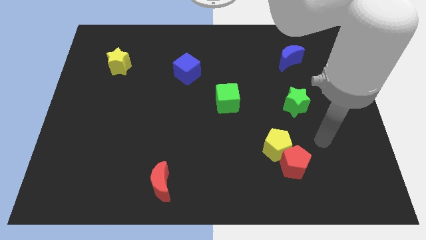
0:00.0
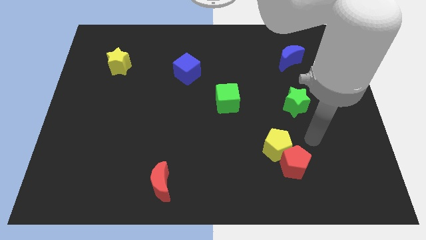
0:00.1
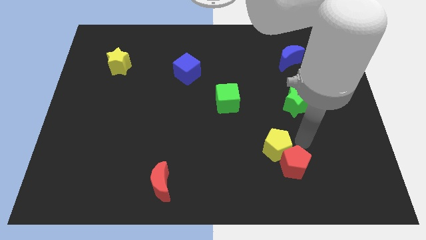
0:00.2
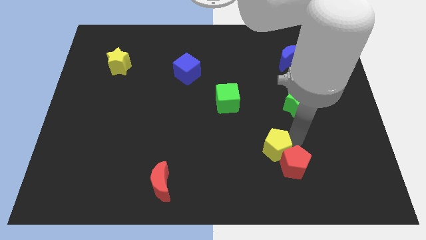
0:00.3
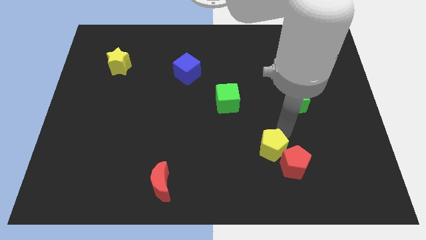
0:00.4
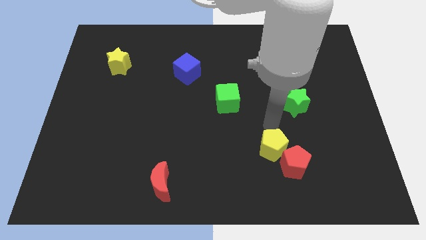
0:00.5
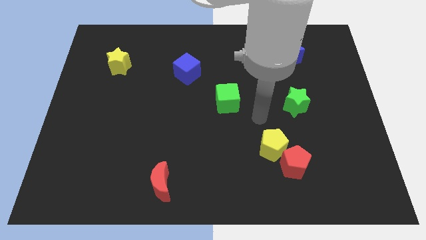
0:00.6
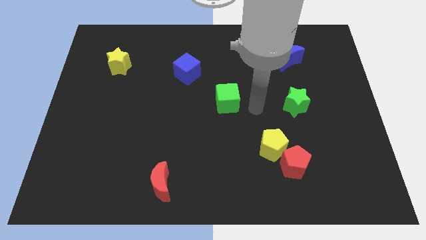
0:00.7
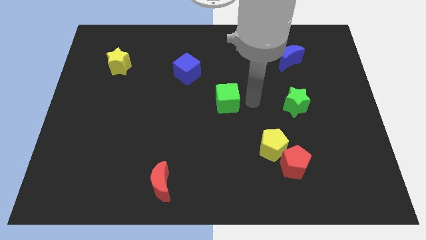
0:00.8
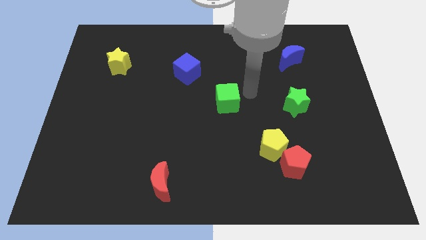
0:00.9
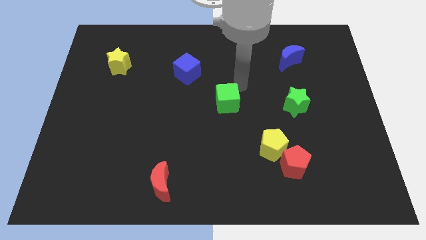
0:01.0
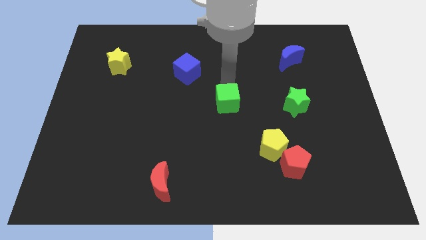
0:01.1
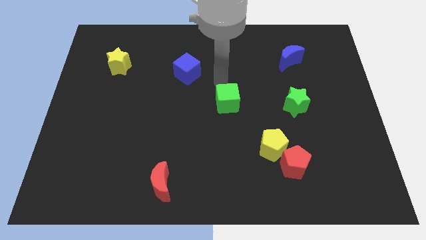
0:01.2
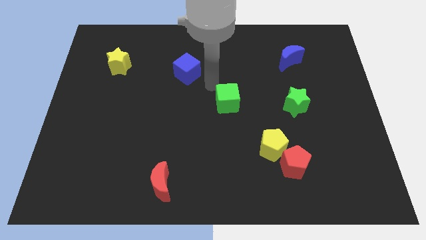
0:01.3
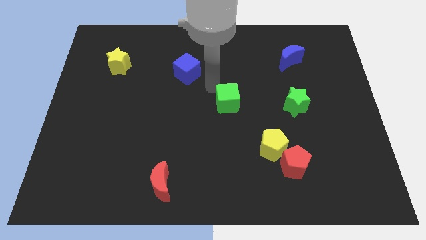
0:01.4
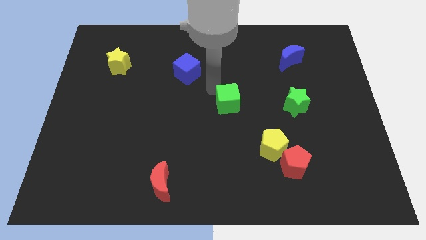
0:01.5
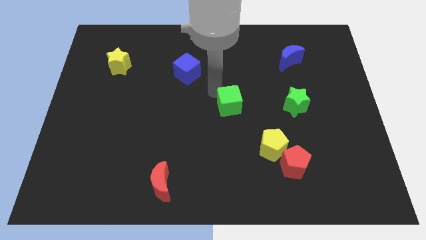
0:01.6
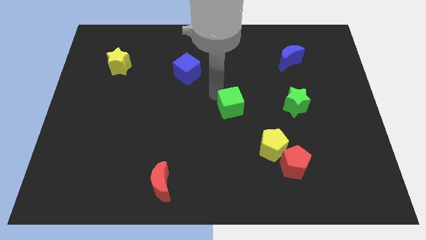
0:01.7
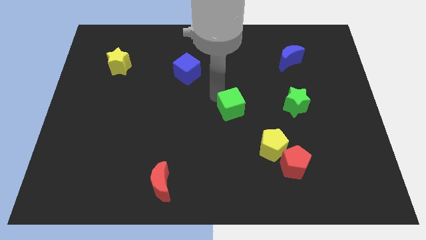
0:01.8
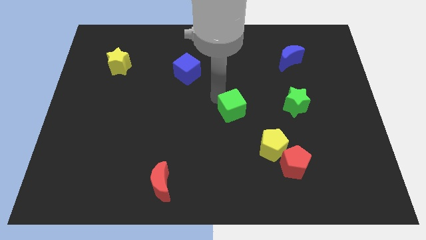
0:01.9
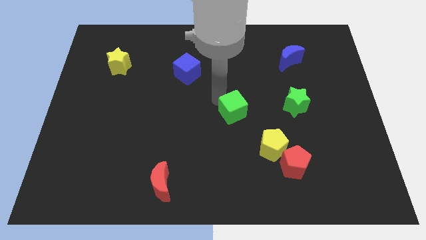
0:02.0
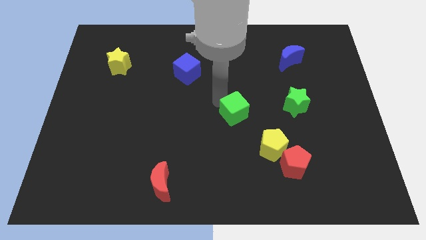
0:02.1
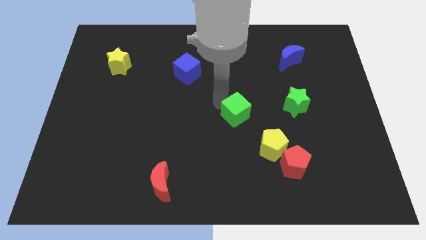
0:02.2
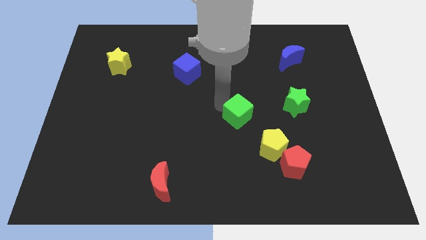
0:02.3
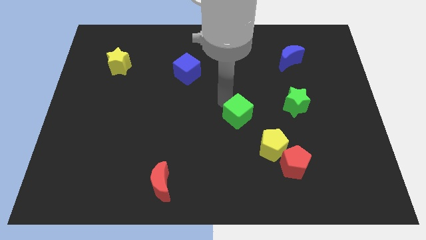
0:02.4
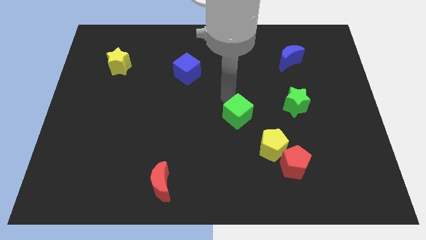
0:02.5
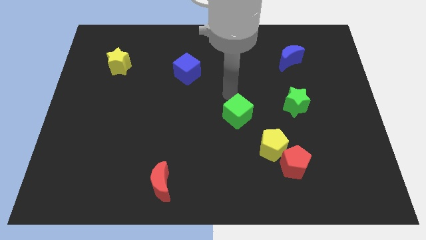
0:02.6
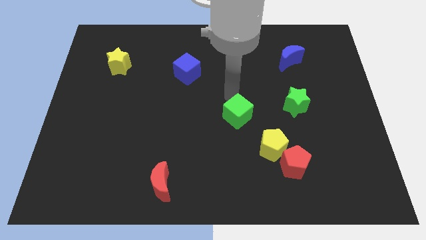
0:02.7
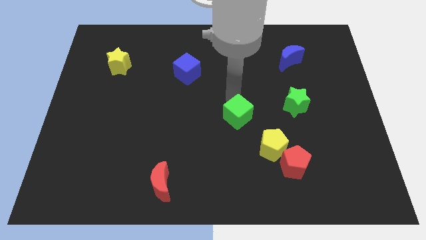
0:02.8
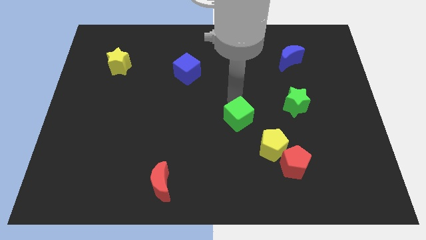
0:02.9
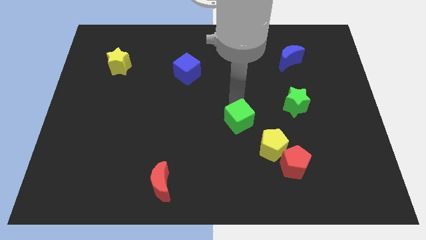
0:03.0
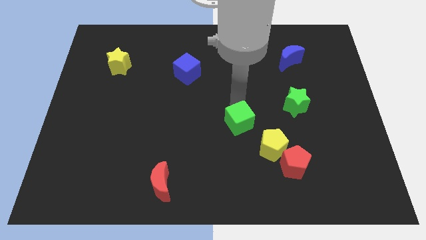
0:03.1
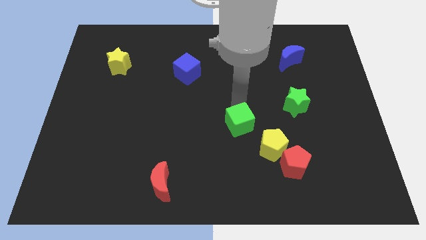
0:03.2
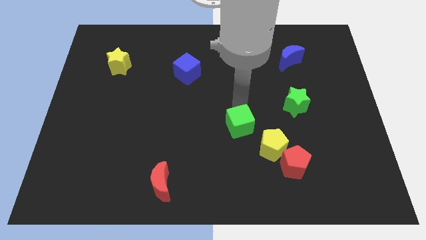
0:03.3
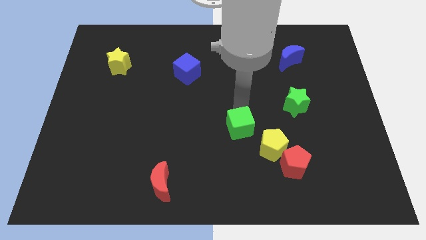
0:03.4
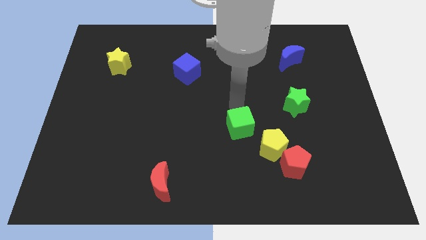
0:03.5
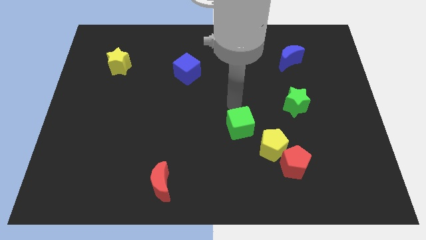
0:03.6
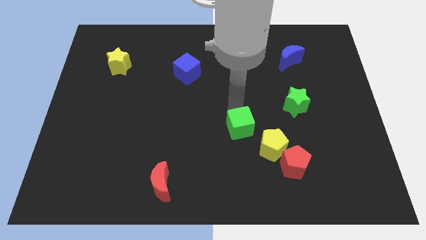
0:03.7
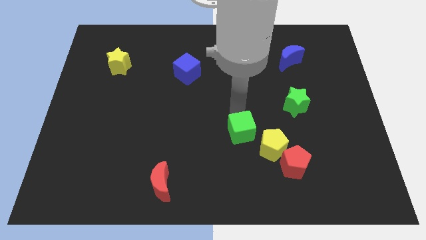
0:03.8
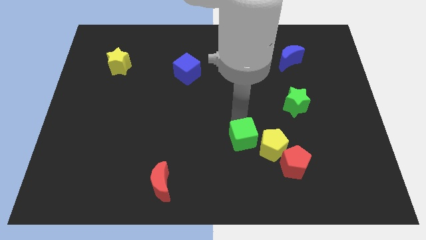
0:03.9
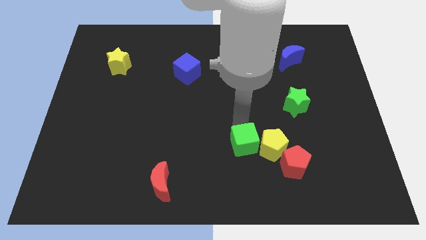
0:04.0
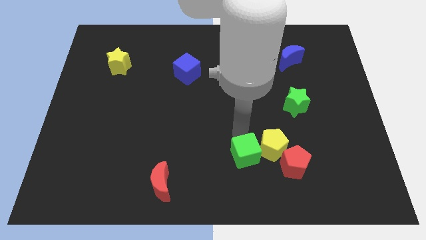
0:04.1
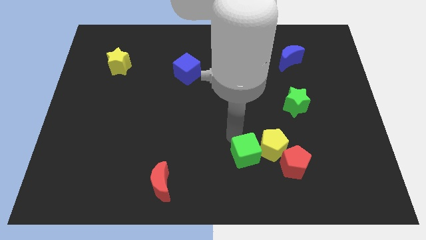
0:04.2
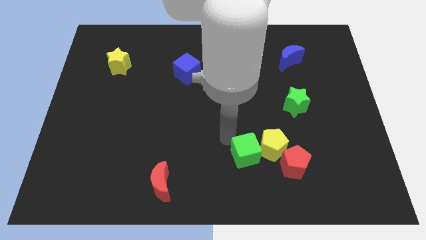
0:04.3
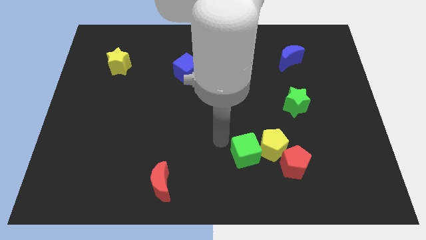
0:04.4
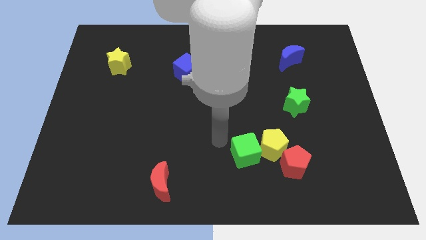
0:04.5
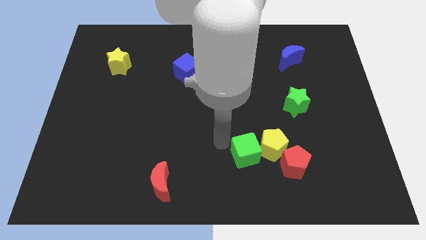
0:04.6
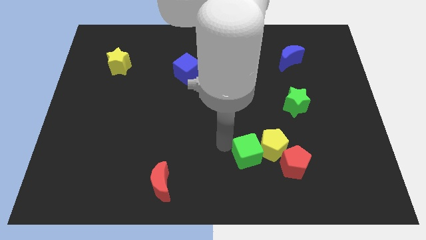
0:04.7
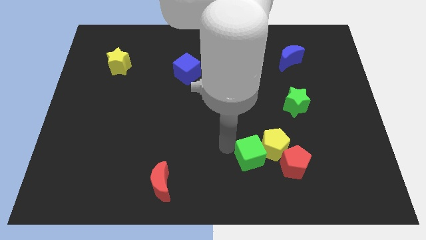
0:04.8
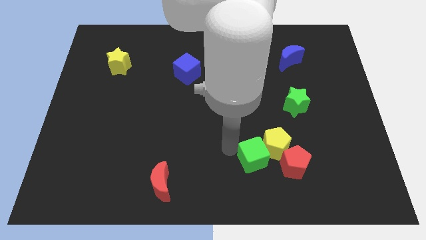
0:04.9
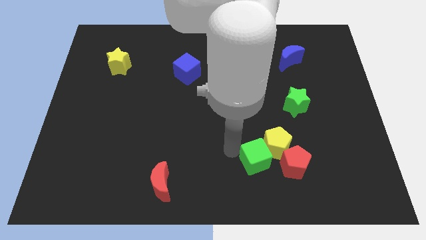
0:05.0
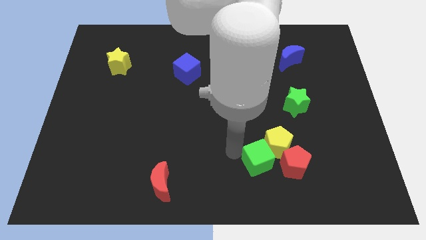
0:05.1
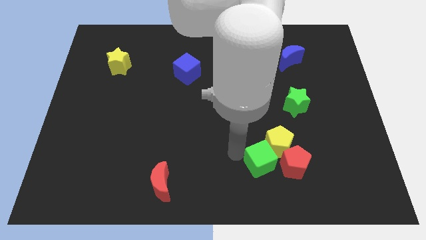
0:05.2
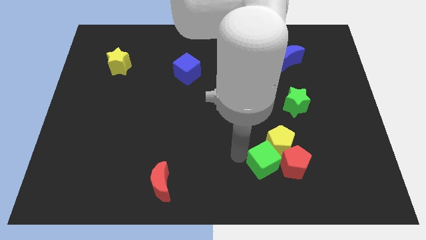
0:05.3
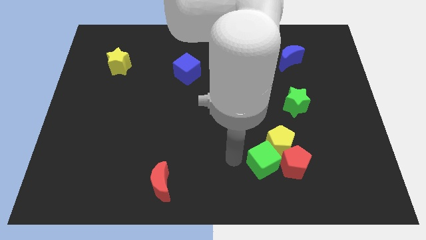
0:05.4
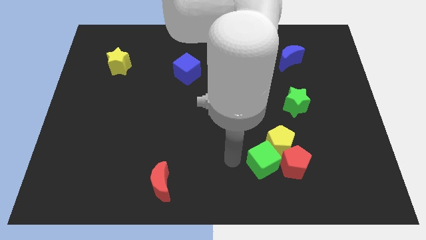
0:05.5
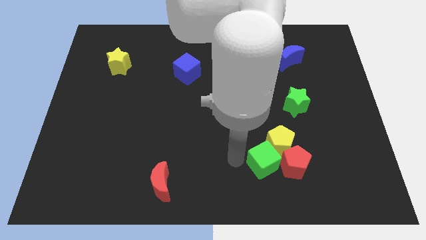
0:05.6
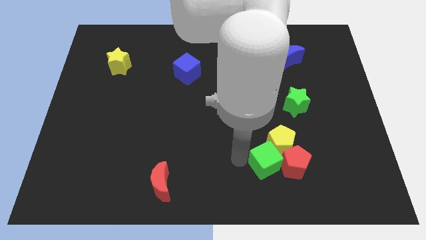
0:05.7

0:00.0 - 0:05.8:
put the green cube to the red pentagon

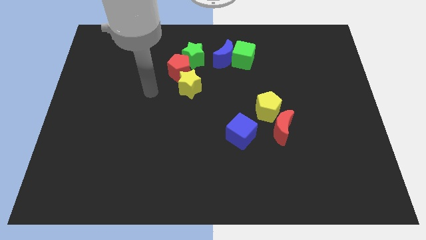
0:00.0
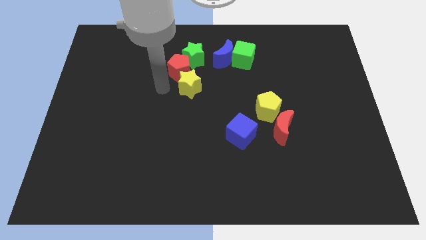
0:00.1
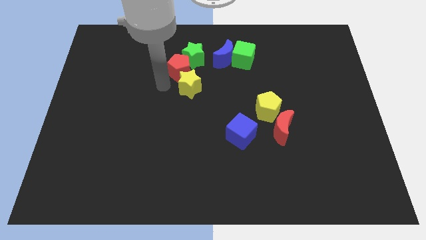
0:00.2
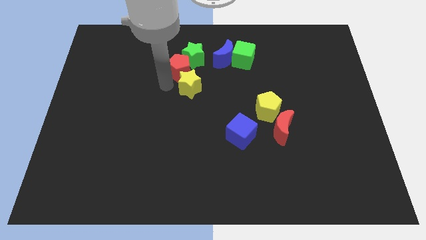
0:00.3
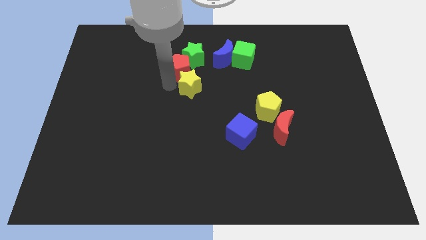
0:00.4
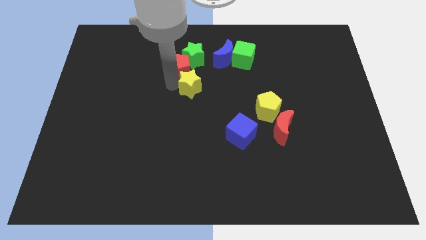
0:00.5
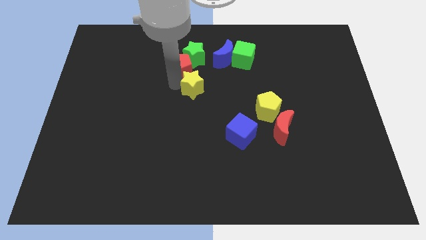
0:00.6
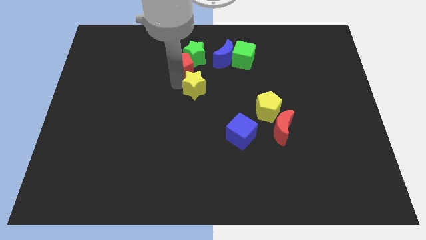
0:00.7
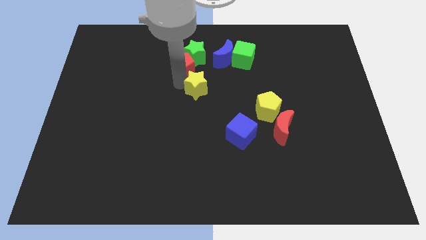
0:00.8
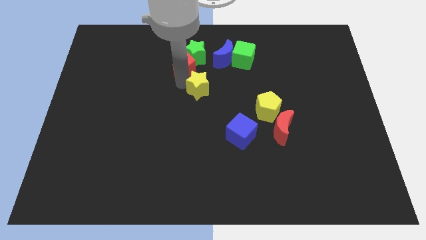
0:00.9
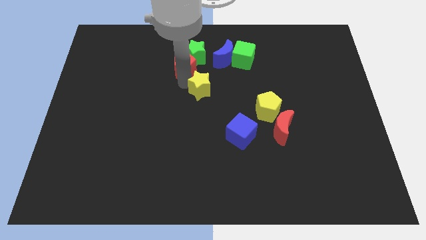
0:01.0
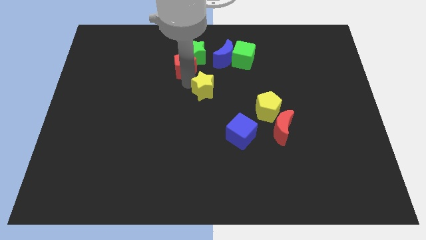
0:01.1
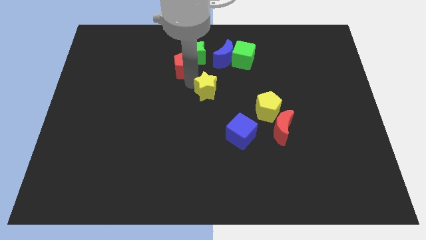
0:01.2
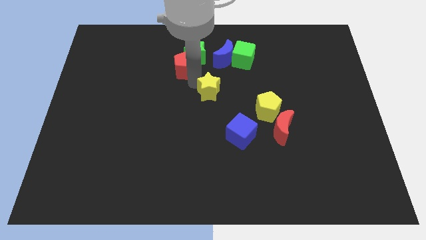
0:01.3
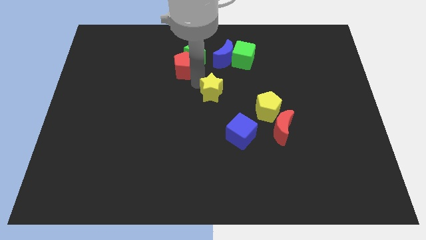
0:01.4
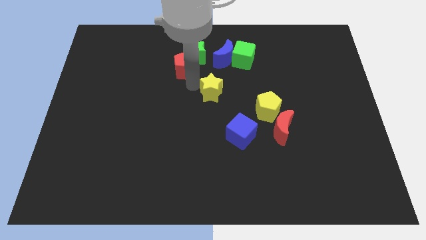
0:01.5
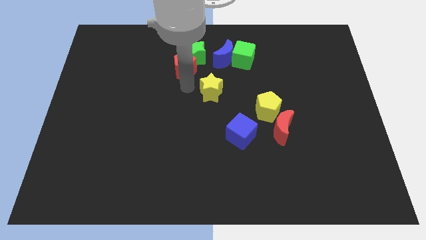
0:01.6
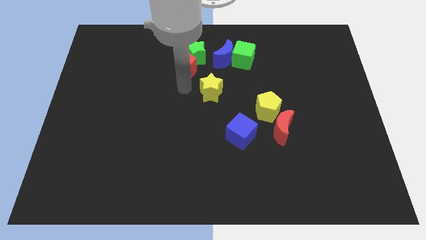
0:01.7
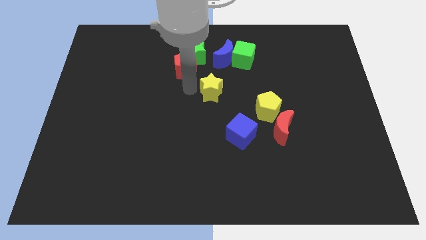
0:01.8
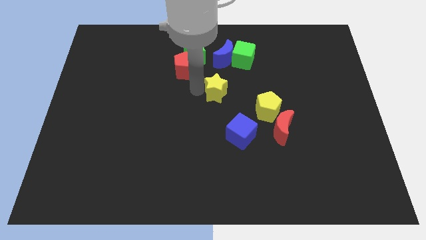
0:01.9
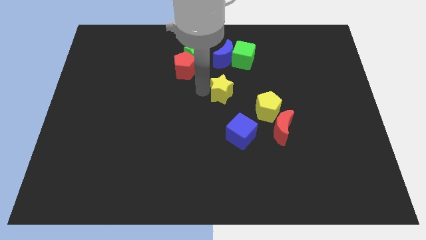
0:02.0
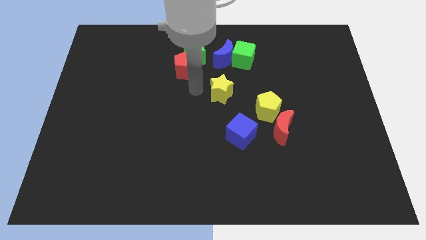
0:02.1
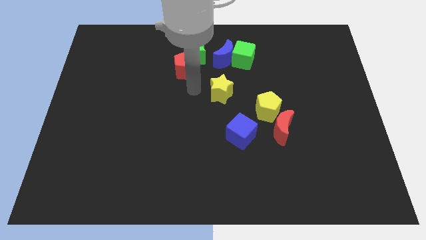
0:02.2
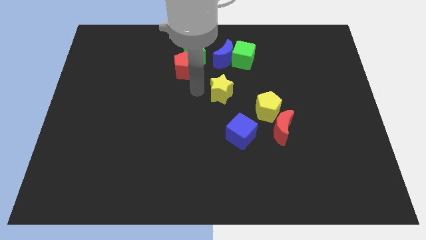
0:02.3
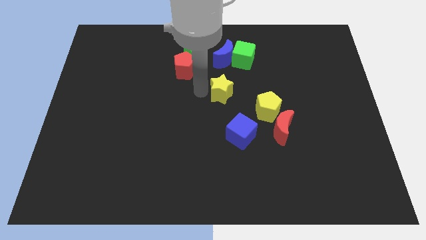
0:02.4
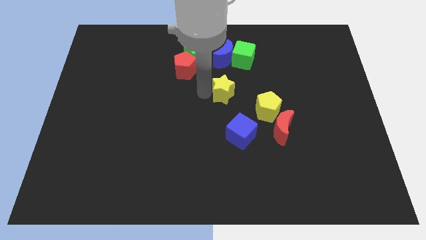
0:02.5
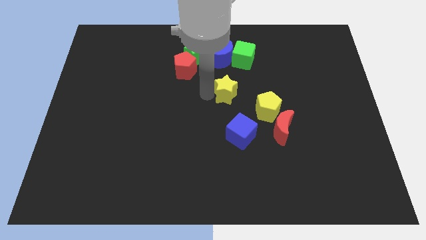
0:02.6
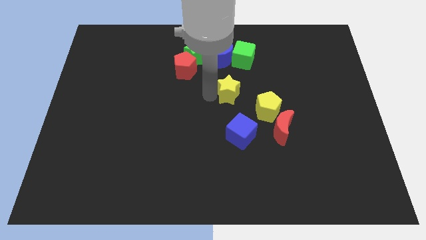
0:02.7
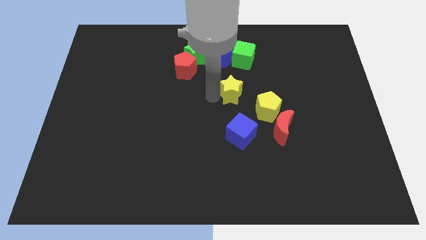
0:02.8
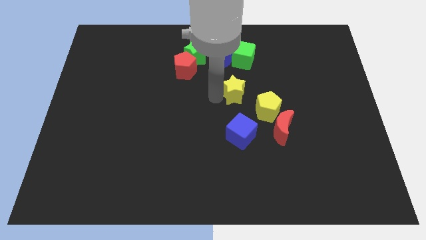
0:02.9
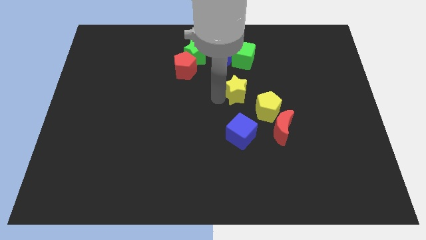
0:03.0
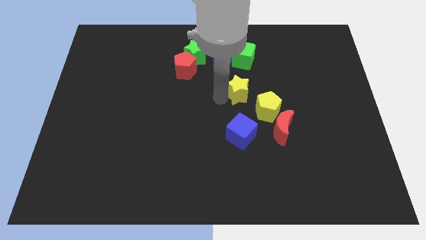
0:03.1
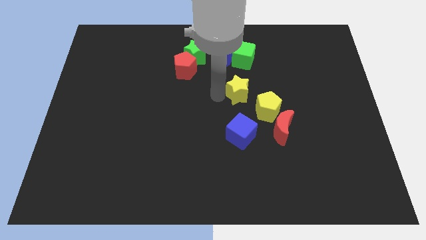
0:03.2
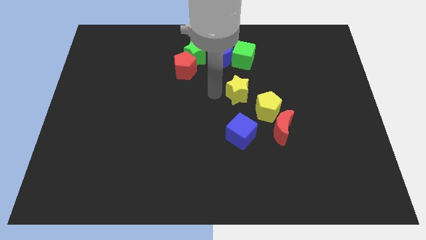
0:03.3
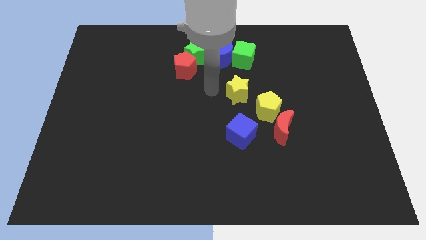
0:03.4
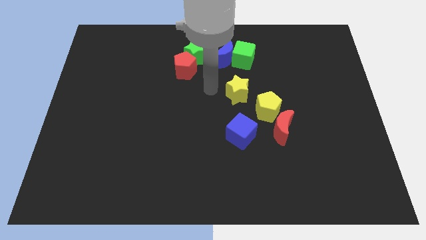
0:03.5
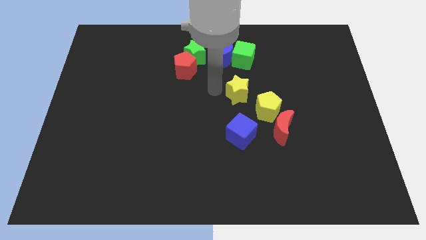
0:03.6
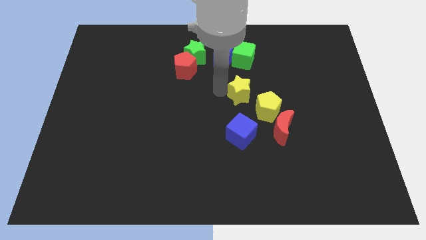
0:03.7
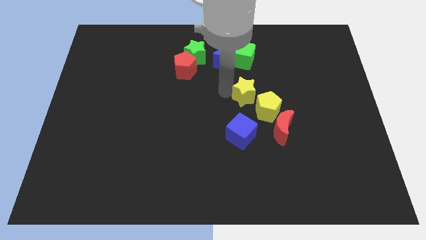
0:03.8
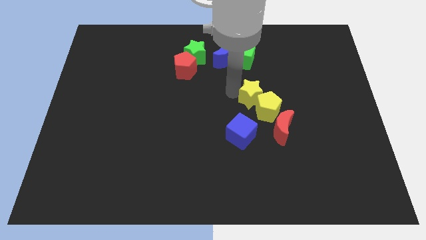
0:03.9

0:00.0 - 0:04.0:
put the yellow star to the yellow pentagon
